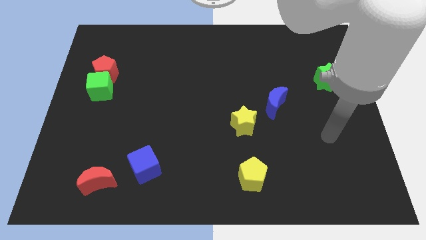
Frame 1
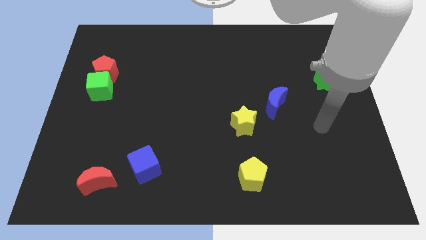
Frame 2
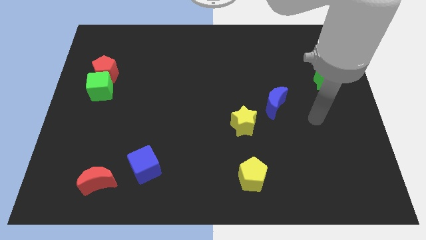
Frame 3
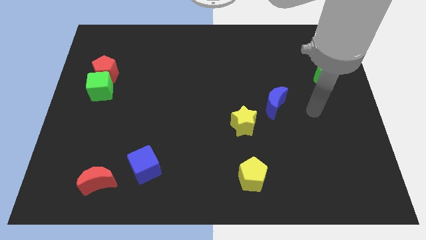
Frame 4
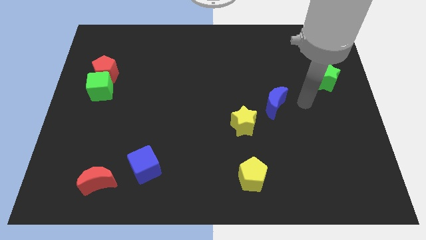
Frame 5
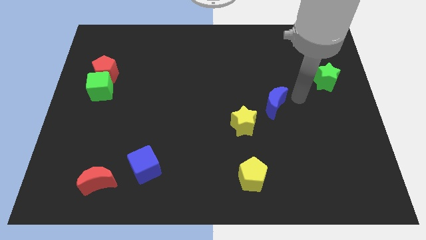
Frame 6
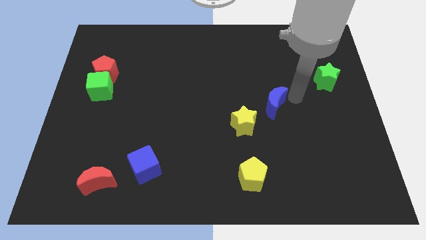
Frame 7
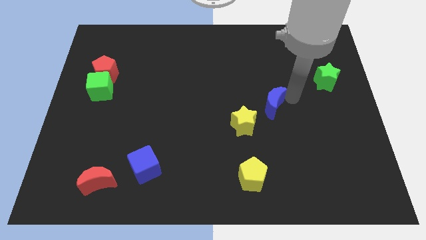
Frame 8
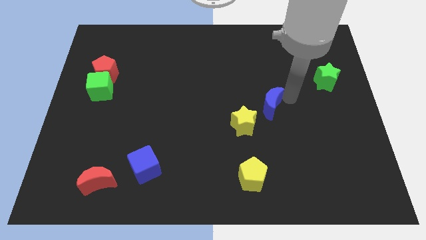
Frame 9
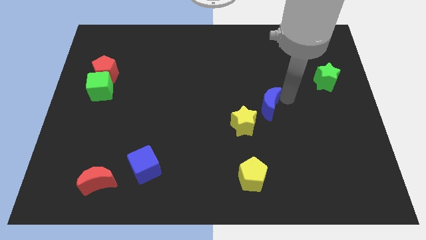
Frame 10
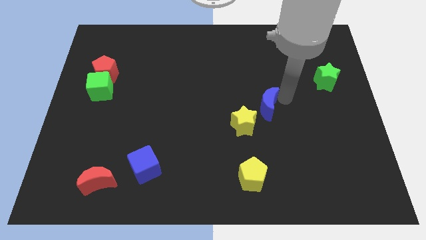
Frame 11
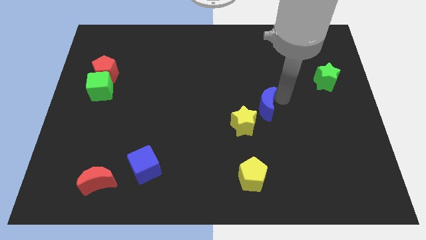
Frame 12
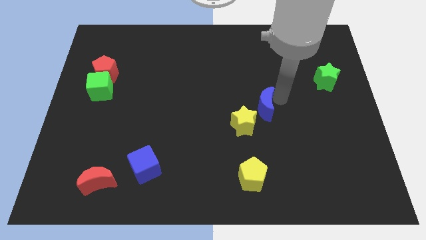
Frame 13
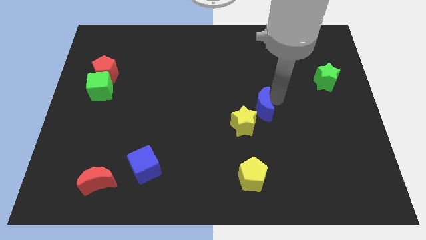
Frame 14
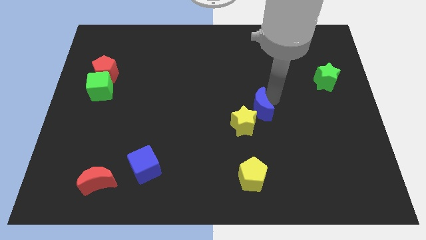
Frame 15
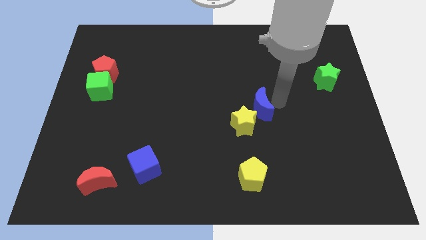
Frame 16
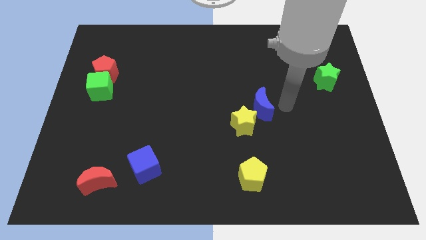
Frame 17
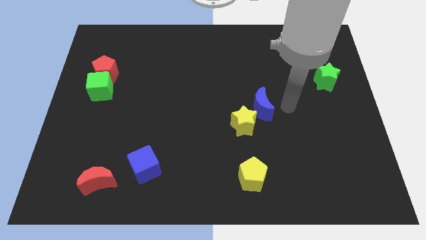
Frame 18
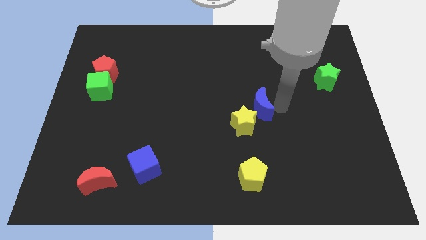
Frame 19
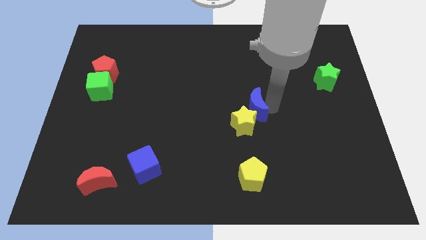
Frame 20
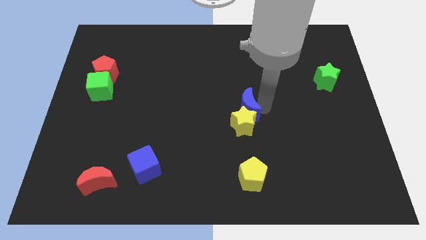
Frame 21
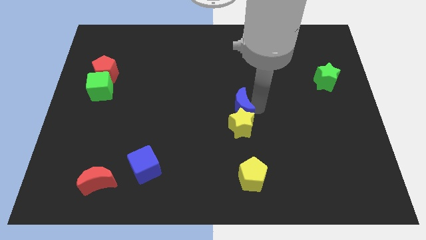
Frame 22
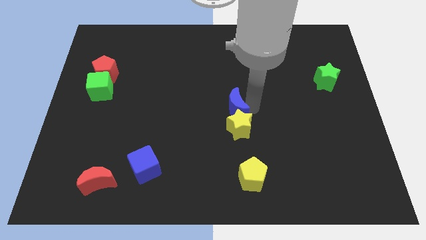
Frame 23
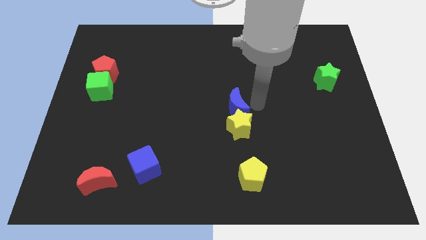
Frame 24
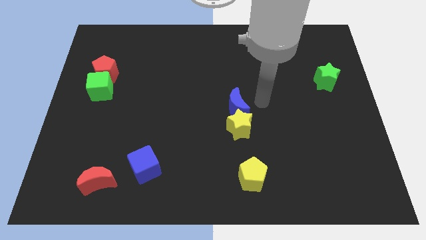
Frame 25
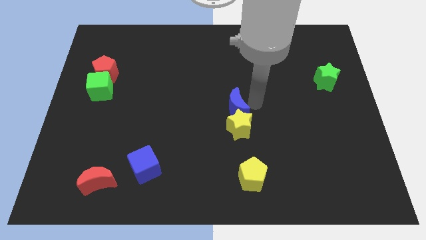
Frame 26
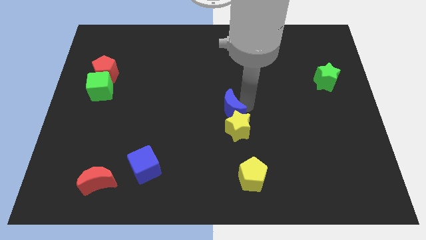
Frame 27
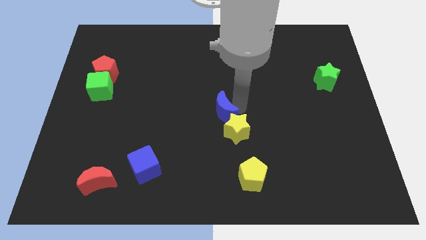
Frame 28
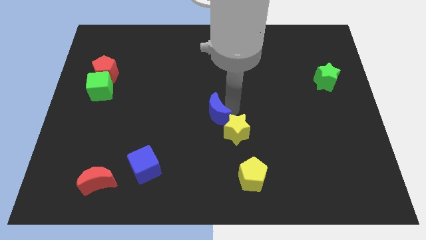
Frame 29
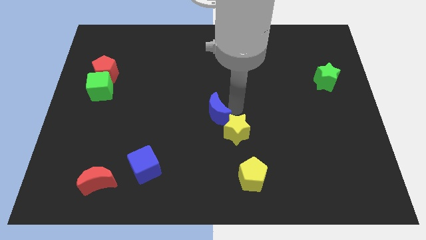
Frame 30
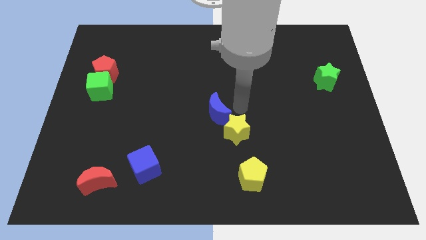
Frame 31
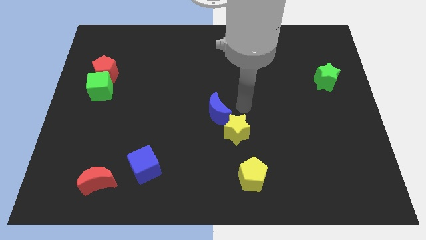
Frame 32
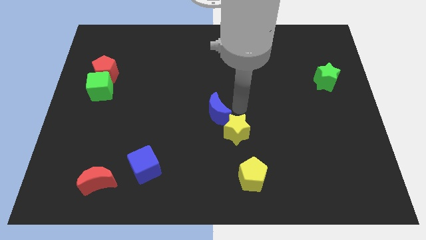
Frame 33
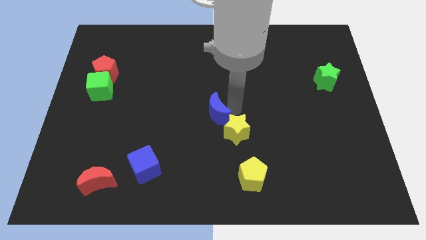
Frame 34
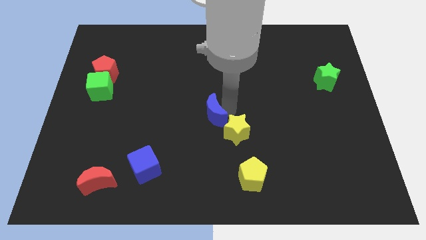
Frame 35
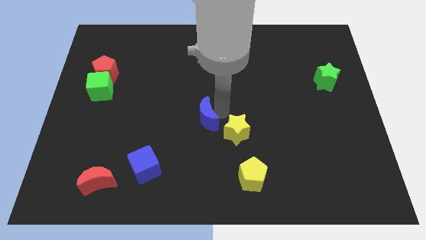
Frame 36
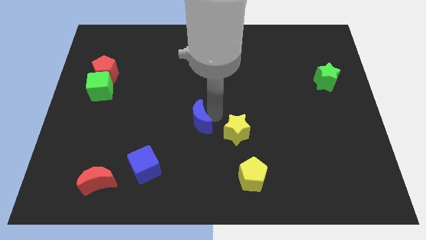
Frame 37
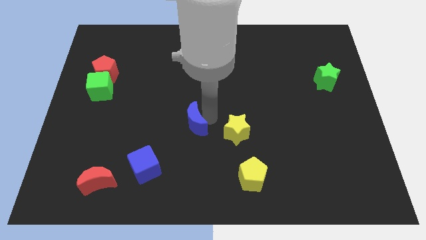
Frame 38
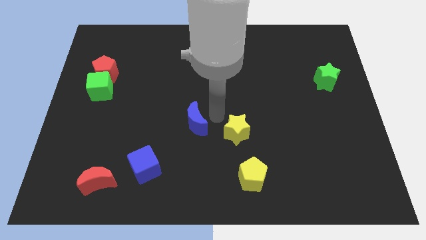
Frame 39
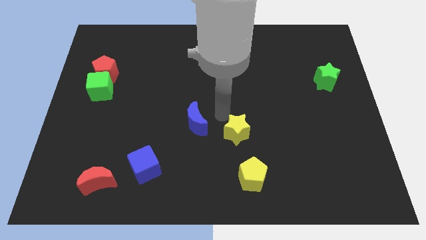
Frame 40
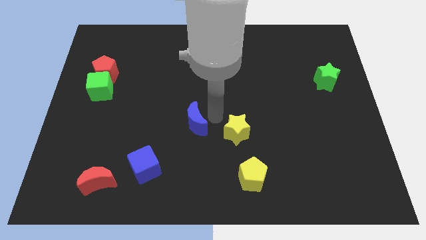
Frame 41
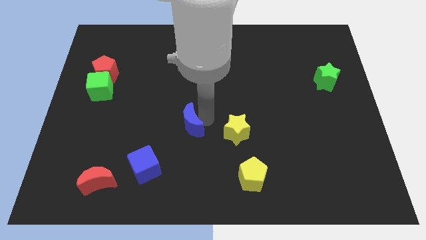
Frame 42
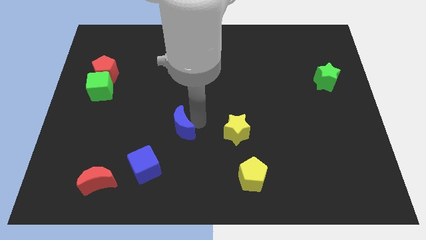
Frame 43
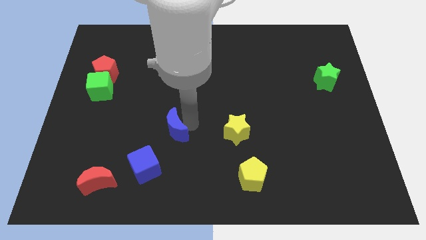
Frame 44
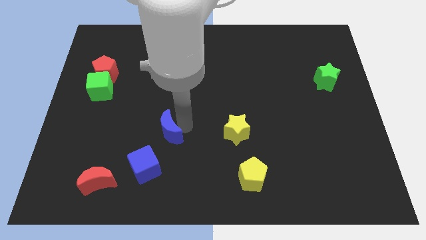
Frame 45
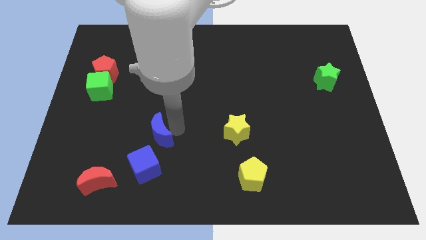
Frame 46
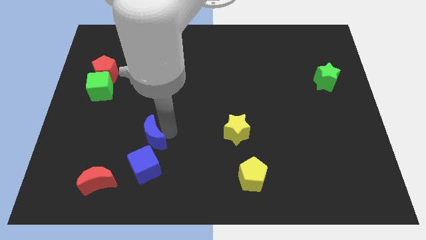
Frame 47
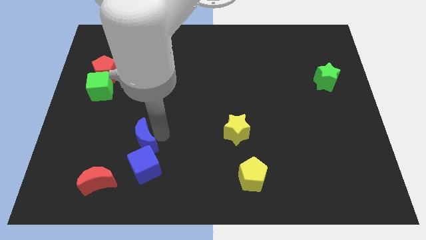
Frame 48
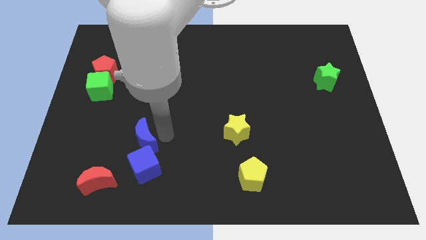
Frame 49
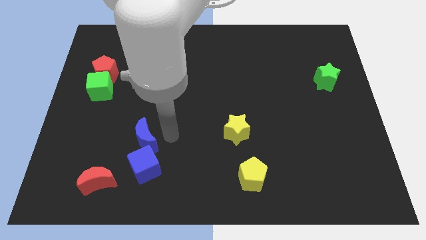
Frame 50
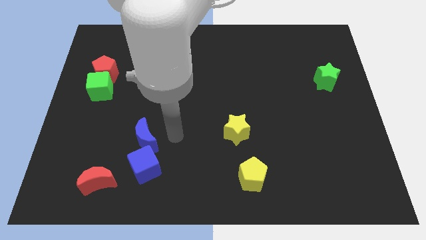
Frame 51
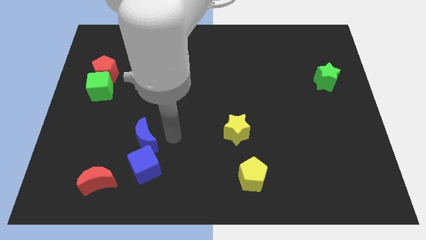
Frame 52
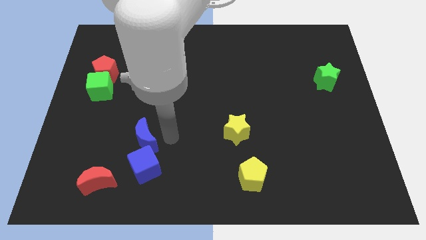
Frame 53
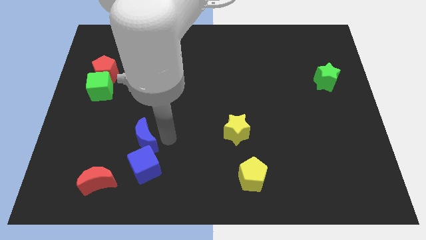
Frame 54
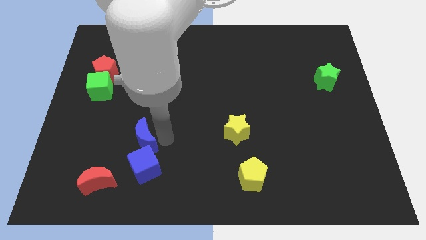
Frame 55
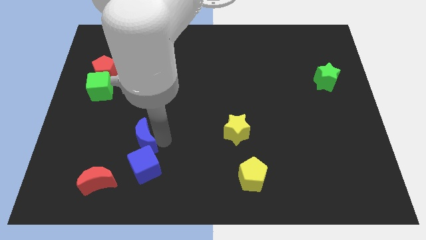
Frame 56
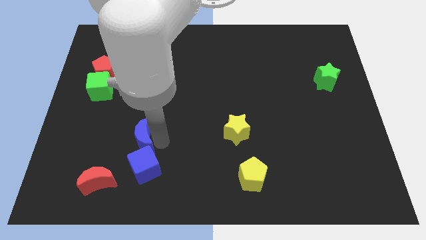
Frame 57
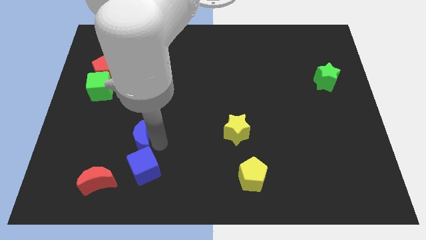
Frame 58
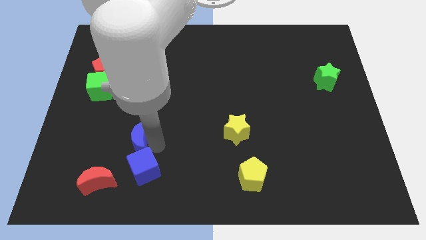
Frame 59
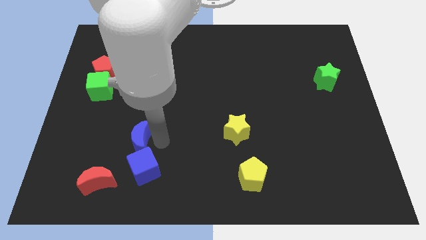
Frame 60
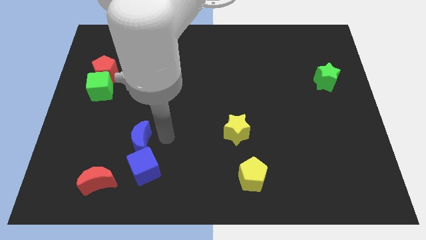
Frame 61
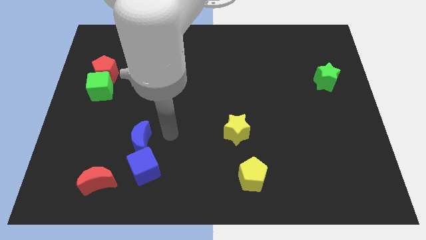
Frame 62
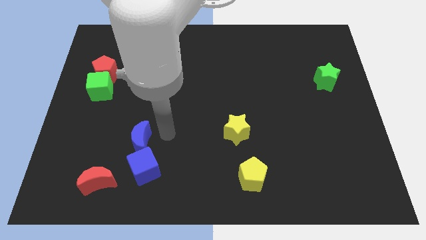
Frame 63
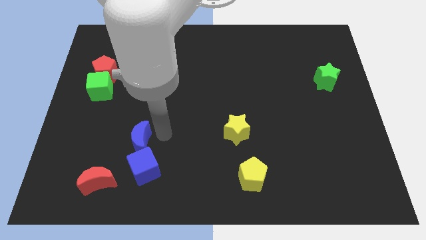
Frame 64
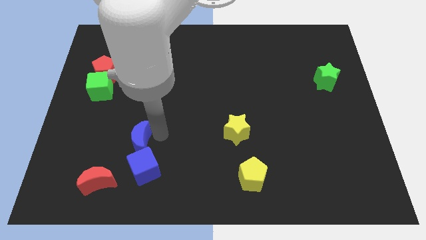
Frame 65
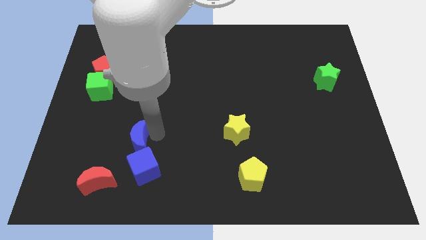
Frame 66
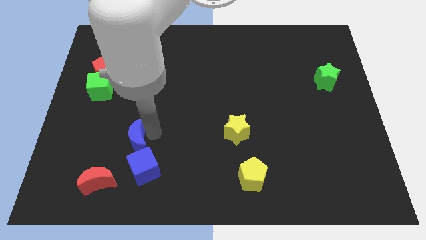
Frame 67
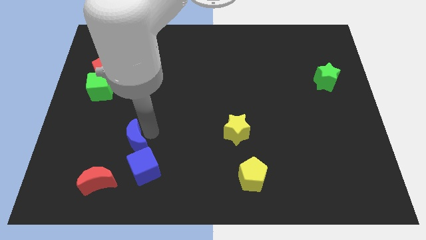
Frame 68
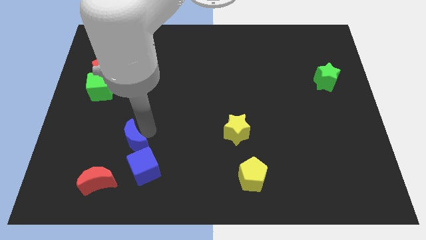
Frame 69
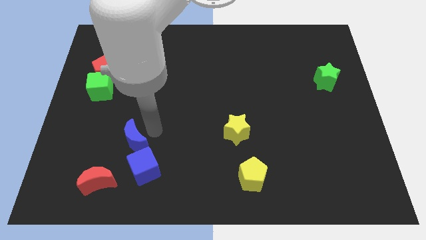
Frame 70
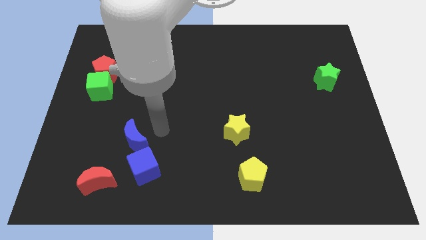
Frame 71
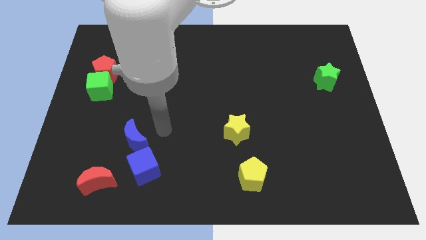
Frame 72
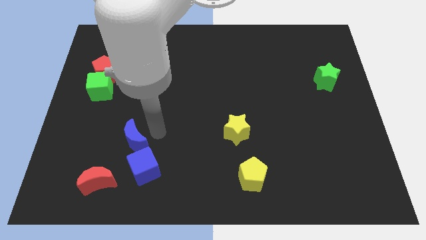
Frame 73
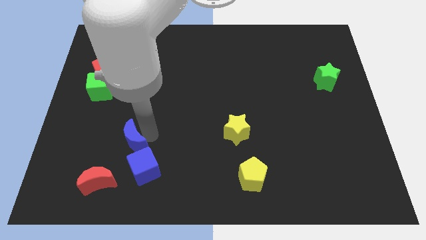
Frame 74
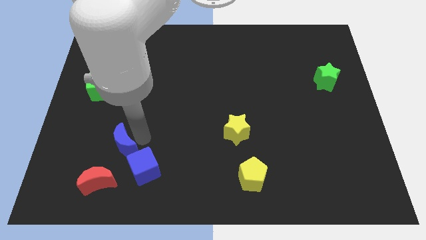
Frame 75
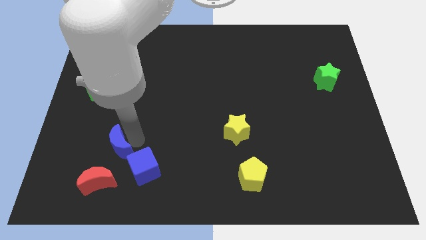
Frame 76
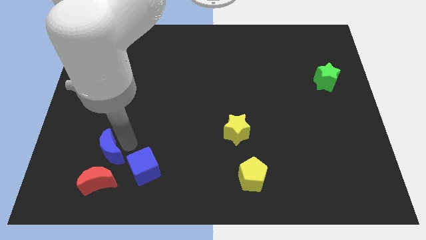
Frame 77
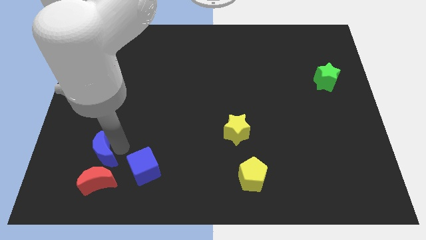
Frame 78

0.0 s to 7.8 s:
put the blue moon diagonally up and to the left of the red moon
